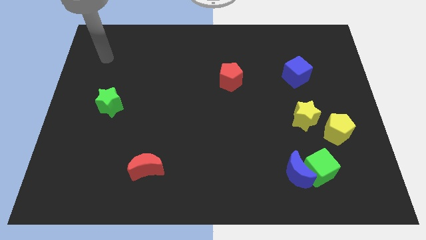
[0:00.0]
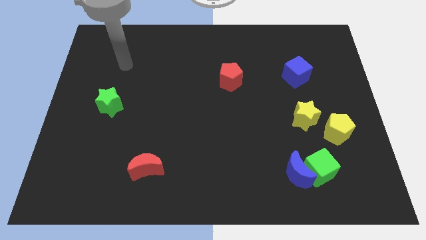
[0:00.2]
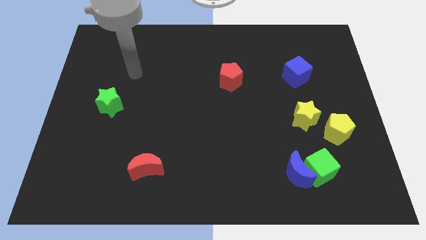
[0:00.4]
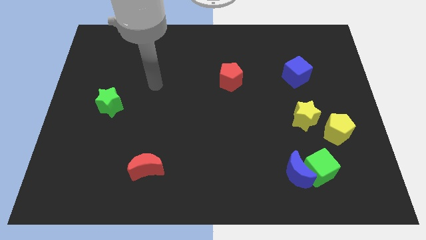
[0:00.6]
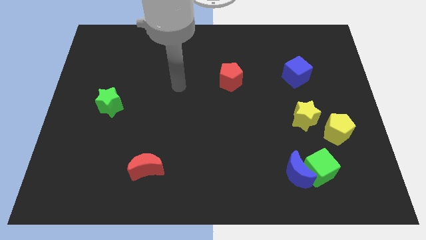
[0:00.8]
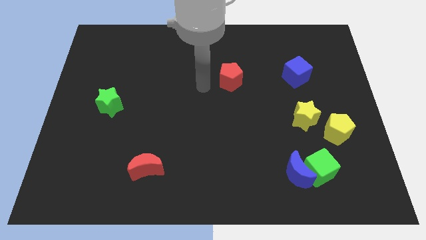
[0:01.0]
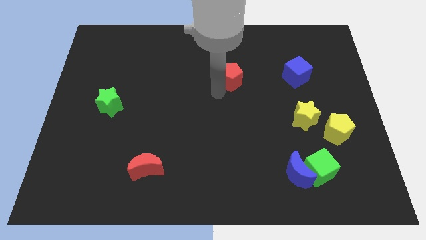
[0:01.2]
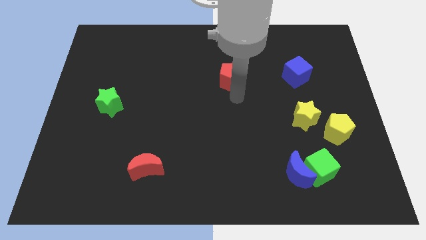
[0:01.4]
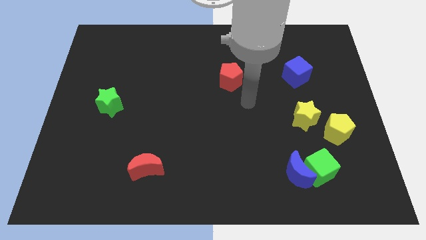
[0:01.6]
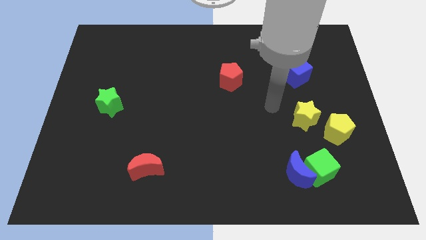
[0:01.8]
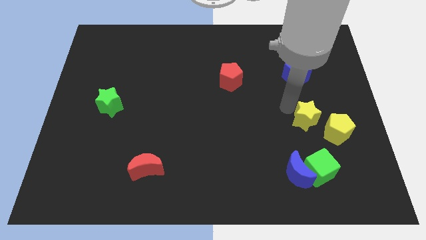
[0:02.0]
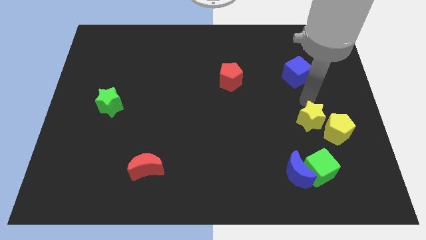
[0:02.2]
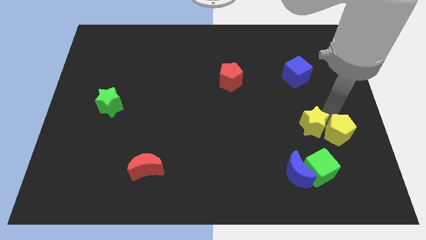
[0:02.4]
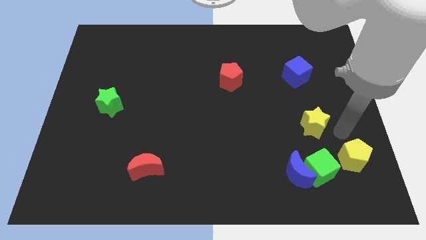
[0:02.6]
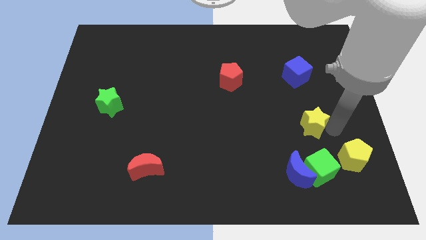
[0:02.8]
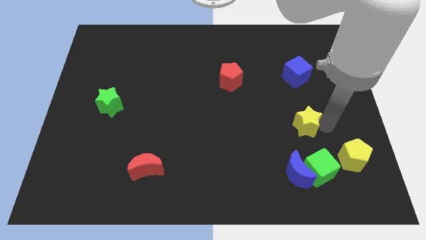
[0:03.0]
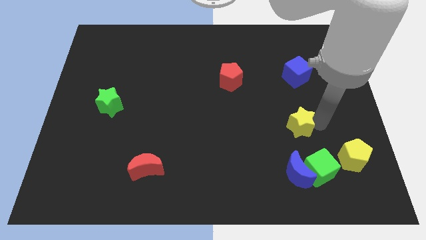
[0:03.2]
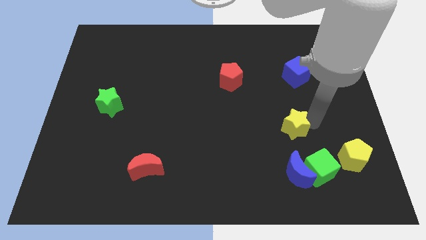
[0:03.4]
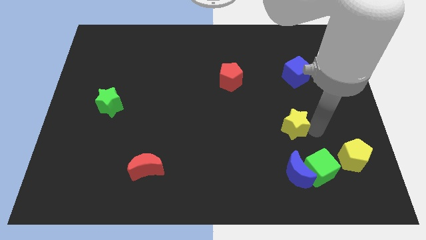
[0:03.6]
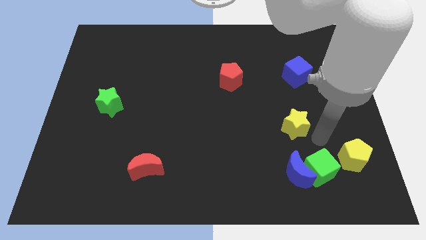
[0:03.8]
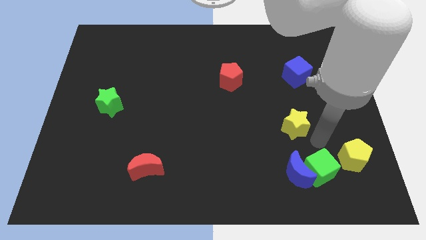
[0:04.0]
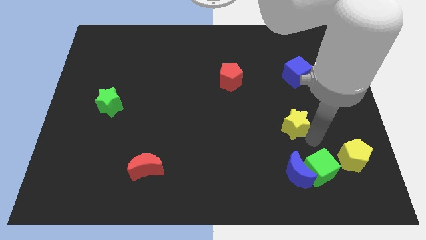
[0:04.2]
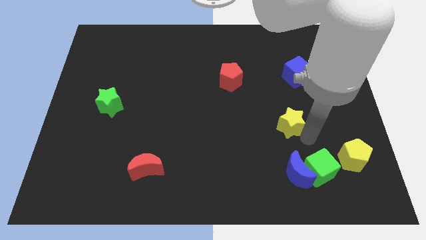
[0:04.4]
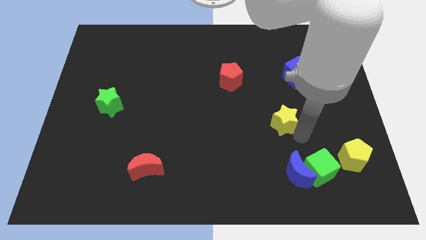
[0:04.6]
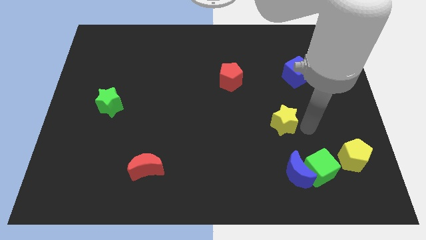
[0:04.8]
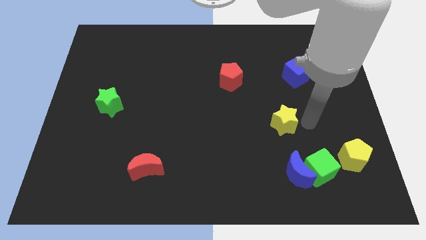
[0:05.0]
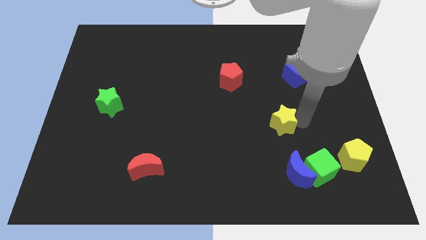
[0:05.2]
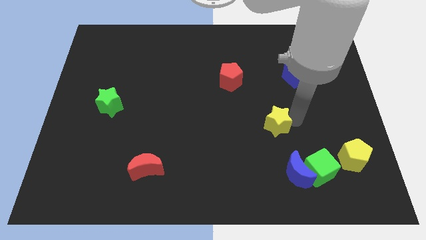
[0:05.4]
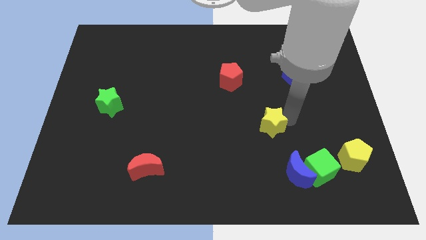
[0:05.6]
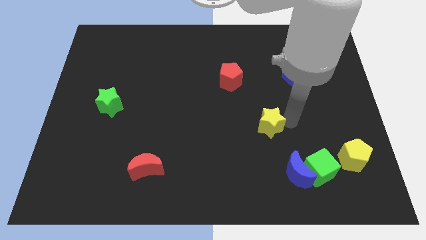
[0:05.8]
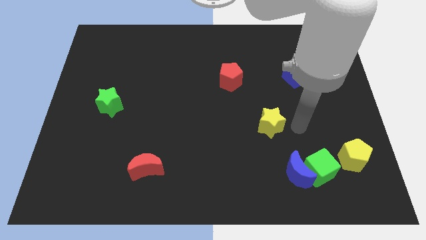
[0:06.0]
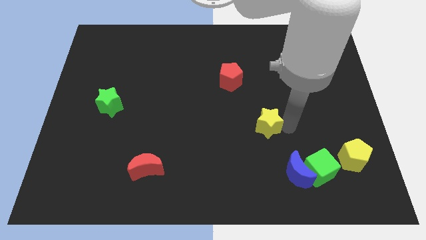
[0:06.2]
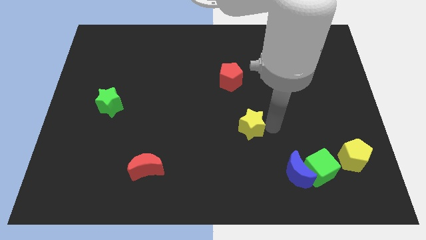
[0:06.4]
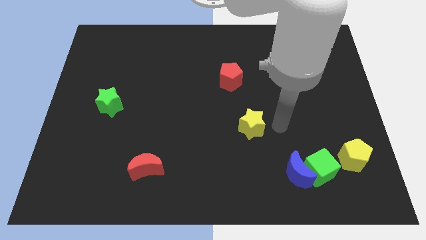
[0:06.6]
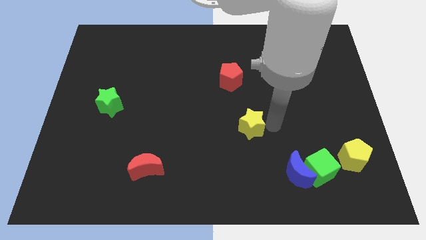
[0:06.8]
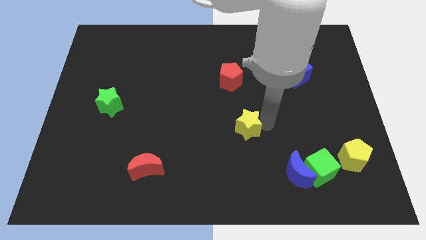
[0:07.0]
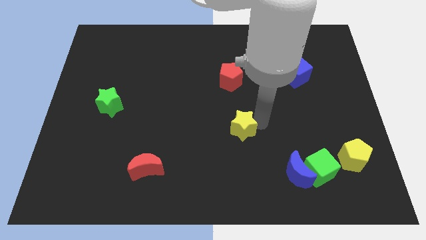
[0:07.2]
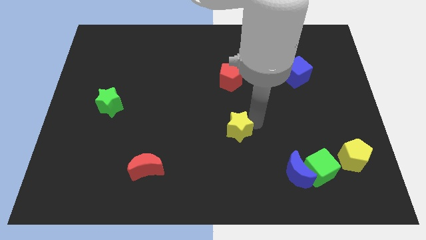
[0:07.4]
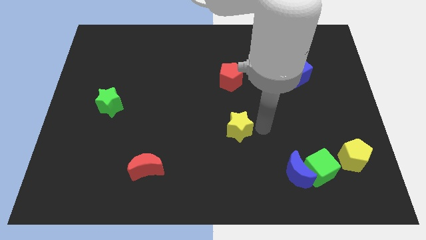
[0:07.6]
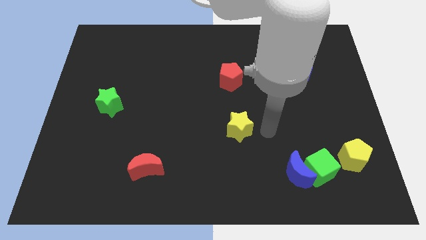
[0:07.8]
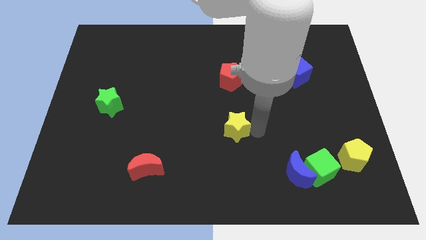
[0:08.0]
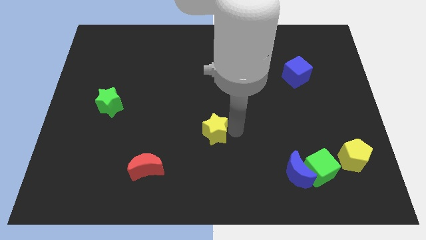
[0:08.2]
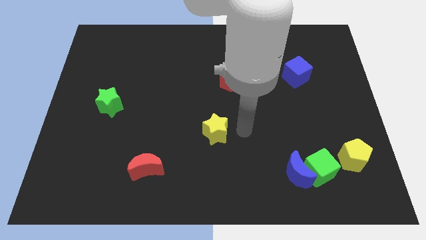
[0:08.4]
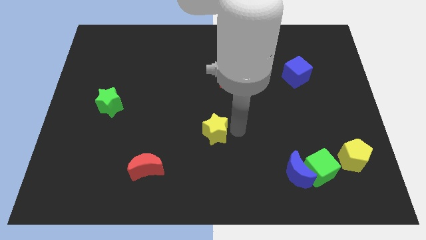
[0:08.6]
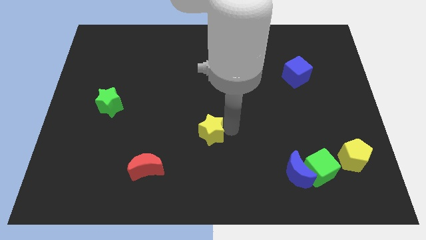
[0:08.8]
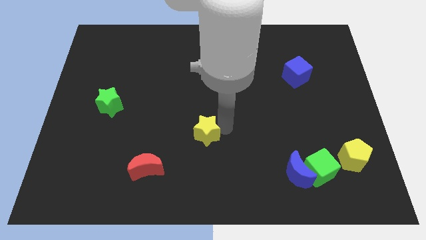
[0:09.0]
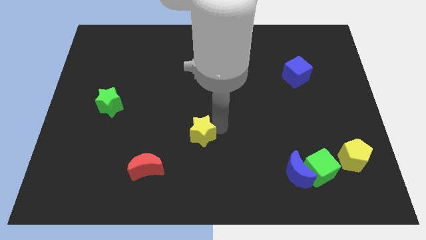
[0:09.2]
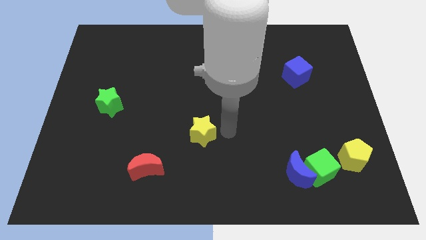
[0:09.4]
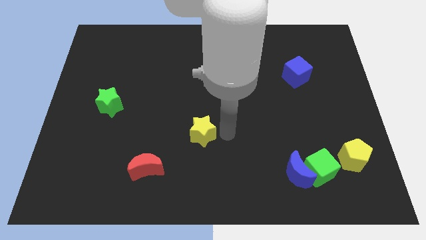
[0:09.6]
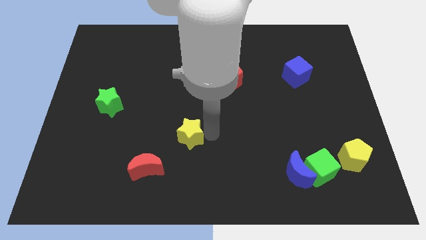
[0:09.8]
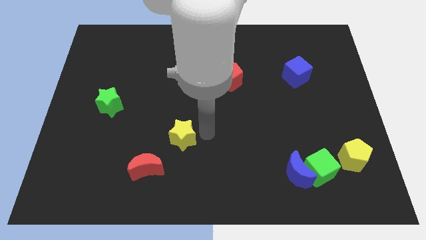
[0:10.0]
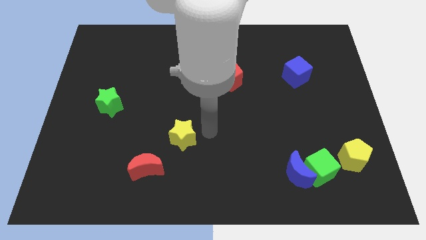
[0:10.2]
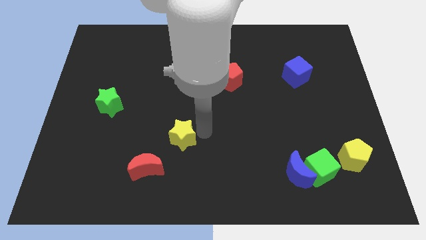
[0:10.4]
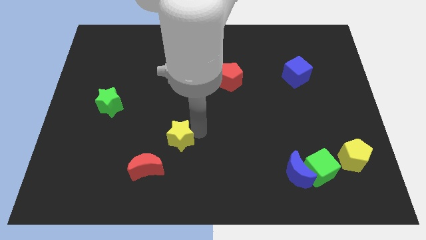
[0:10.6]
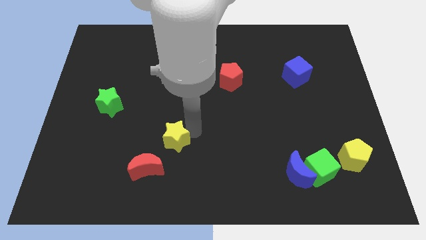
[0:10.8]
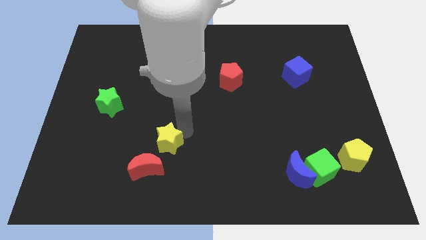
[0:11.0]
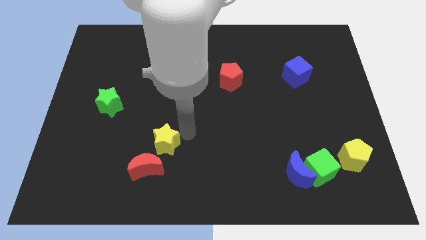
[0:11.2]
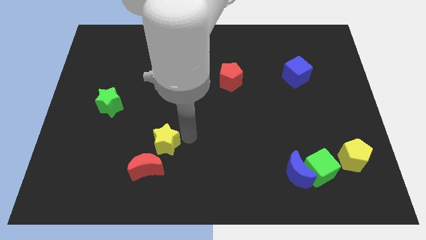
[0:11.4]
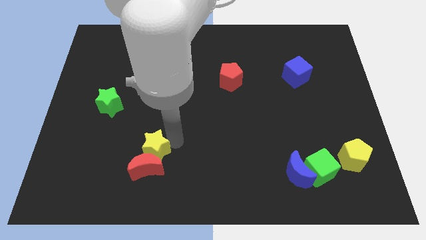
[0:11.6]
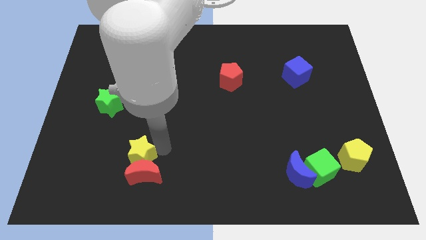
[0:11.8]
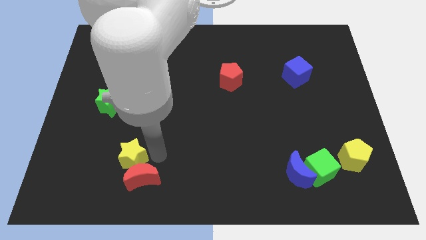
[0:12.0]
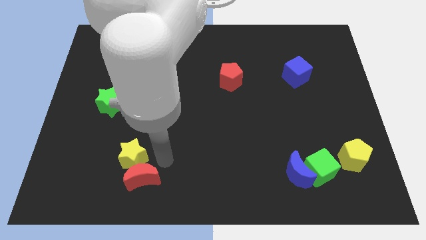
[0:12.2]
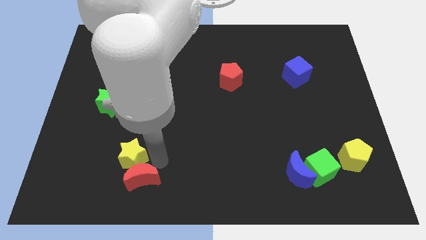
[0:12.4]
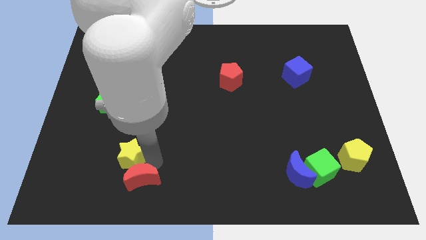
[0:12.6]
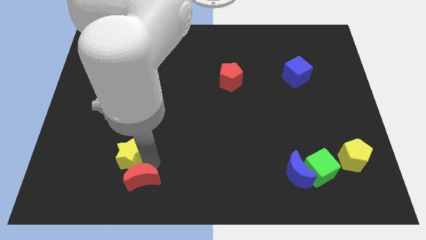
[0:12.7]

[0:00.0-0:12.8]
slide the yellow star to the left side of the red moon

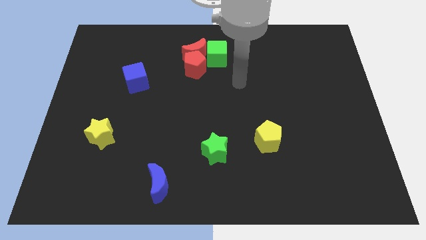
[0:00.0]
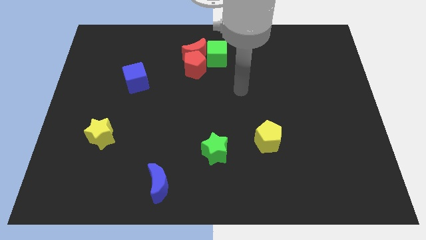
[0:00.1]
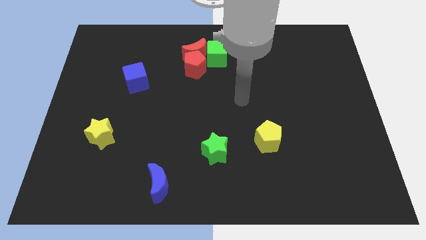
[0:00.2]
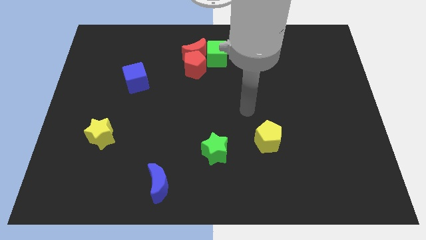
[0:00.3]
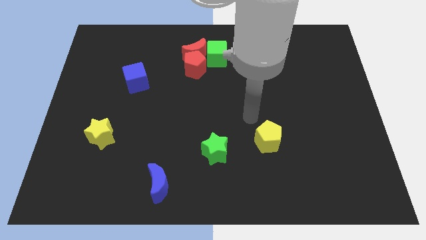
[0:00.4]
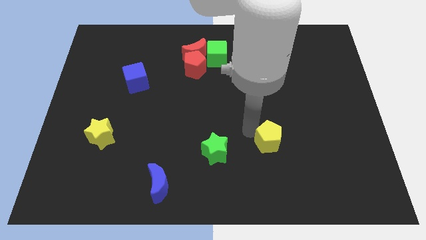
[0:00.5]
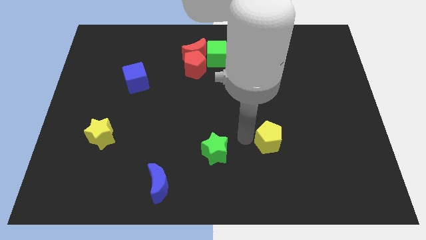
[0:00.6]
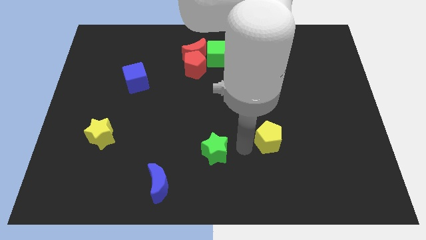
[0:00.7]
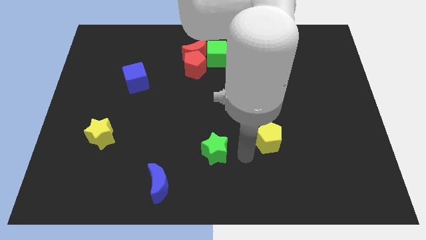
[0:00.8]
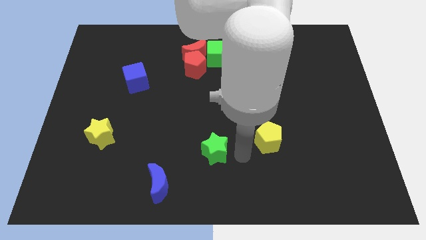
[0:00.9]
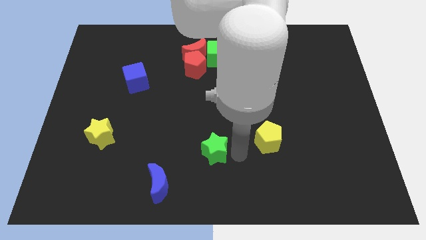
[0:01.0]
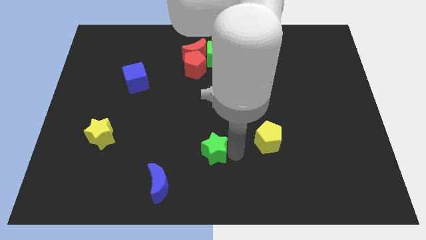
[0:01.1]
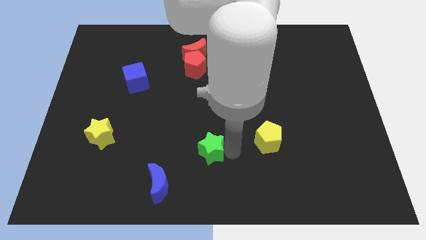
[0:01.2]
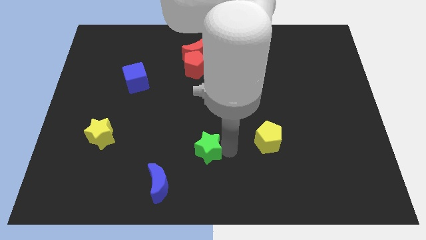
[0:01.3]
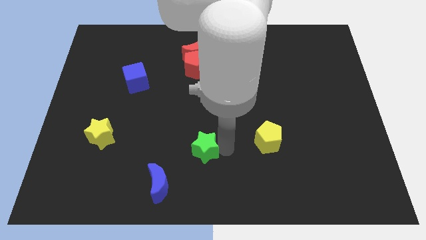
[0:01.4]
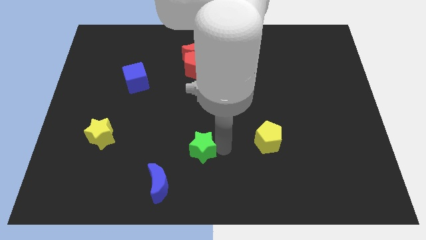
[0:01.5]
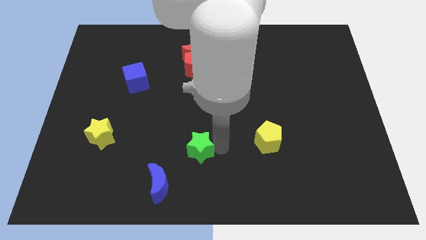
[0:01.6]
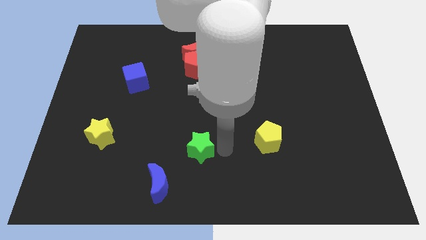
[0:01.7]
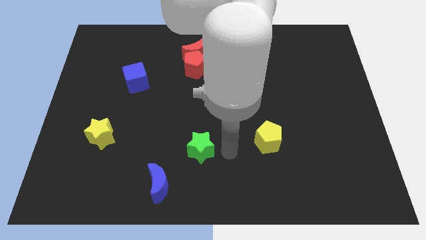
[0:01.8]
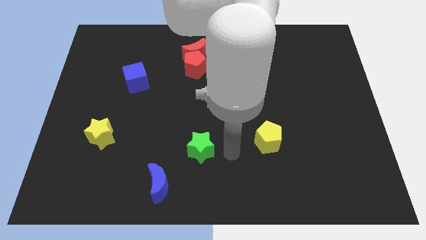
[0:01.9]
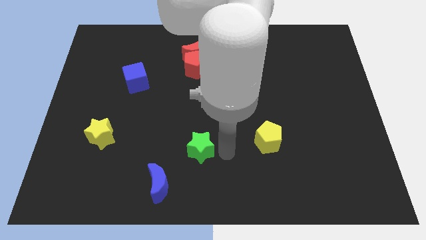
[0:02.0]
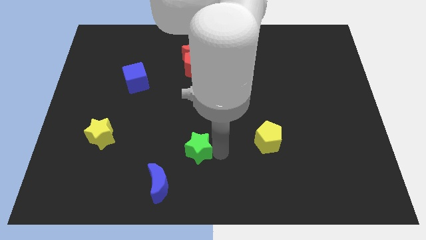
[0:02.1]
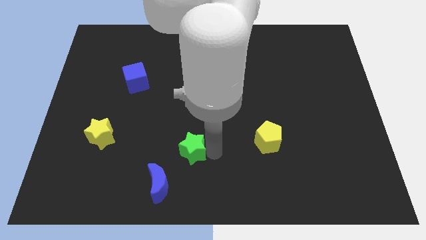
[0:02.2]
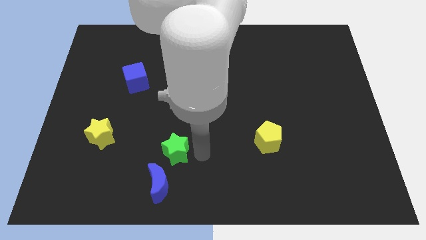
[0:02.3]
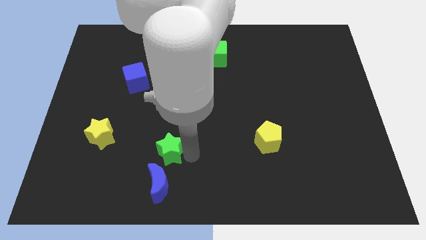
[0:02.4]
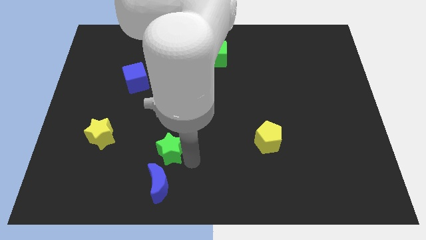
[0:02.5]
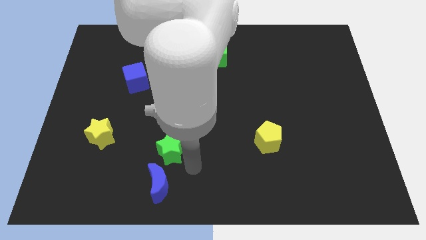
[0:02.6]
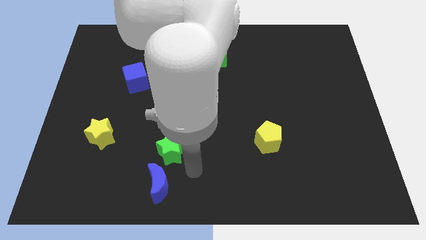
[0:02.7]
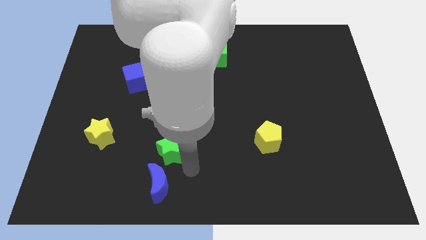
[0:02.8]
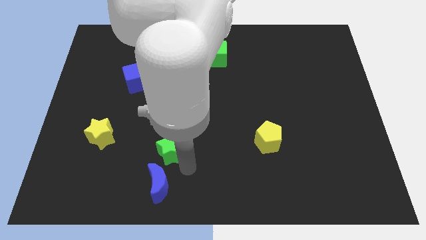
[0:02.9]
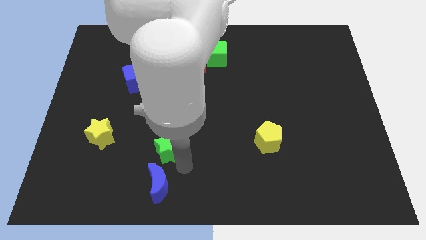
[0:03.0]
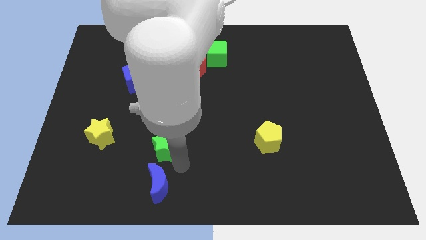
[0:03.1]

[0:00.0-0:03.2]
slide the green star right of the yellow star
